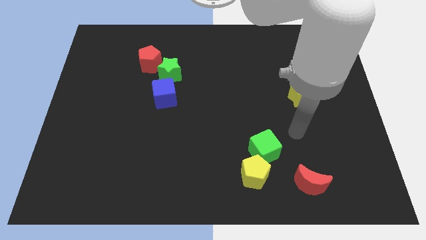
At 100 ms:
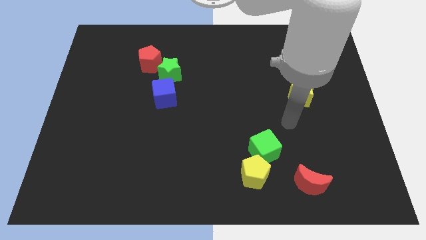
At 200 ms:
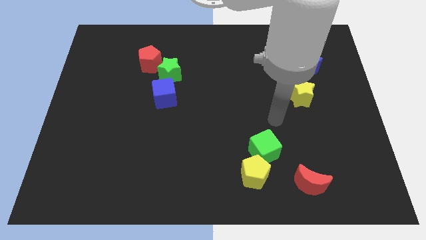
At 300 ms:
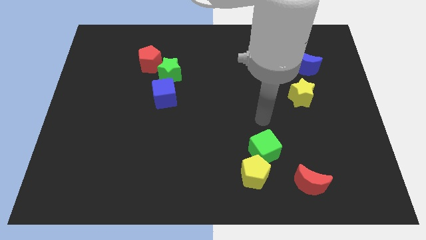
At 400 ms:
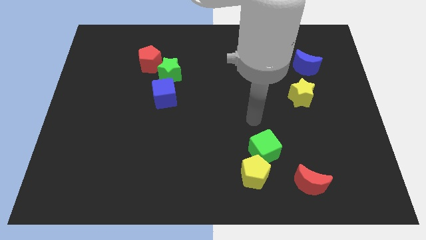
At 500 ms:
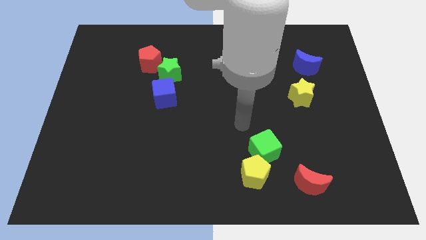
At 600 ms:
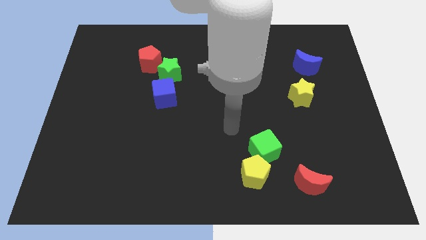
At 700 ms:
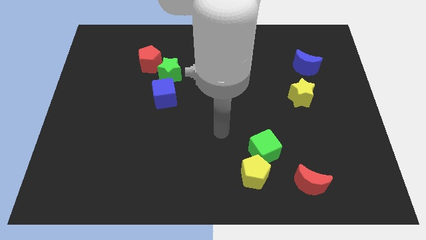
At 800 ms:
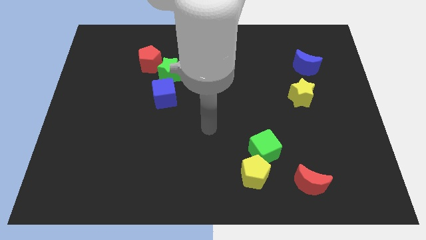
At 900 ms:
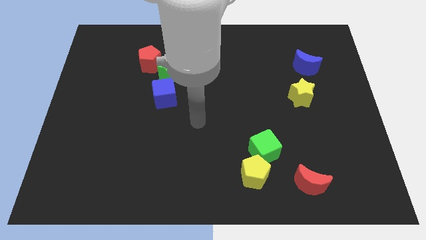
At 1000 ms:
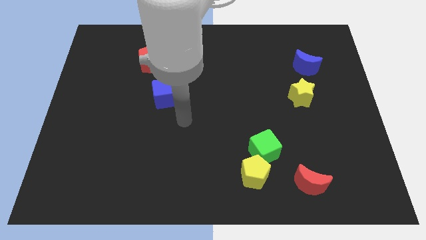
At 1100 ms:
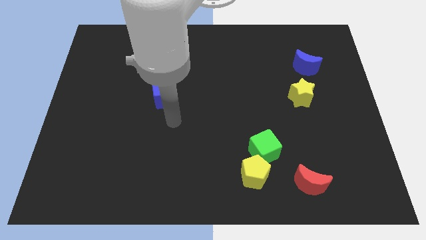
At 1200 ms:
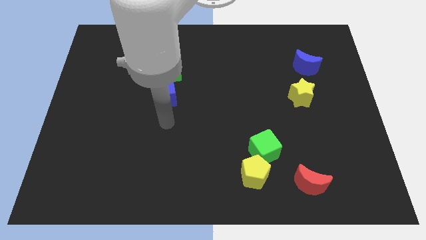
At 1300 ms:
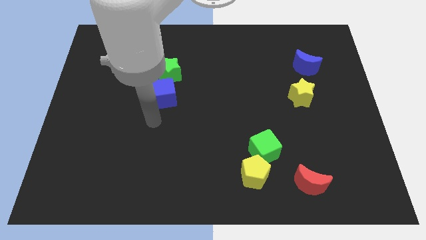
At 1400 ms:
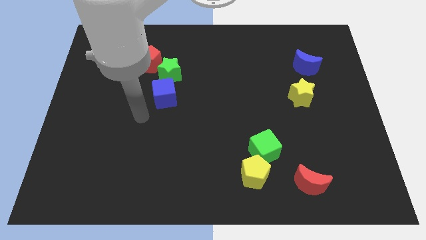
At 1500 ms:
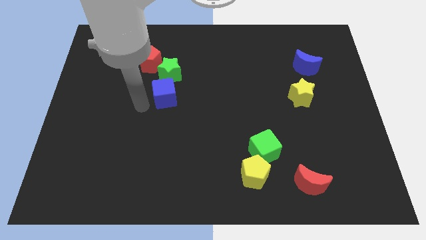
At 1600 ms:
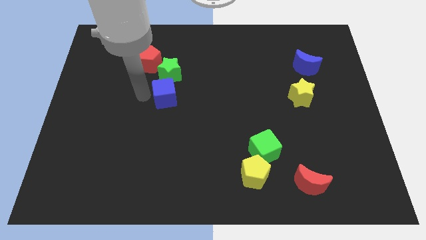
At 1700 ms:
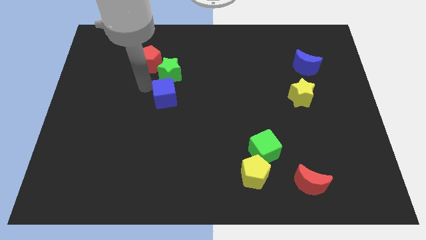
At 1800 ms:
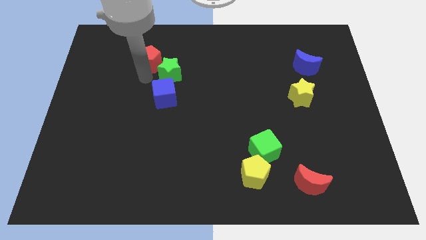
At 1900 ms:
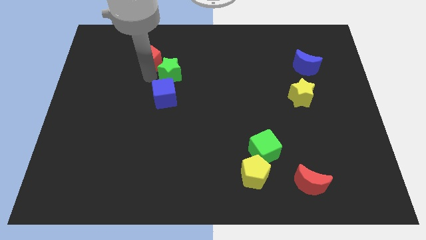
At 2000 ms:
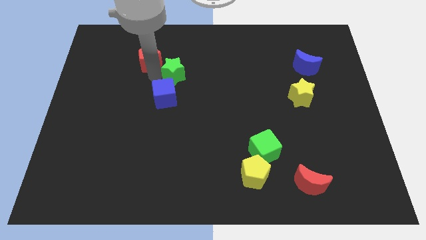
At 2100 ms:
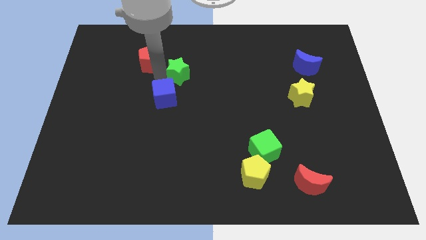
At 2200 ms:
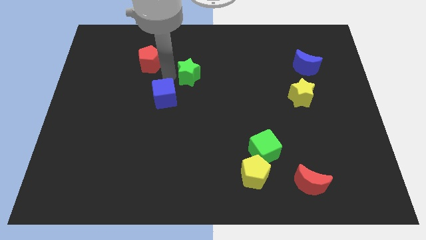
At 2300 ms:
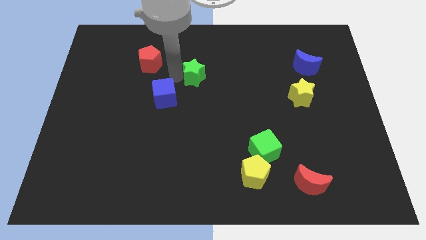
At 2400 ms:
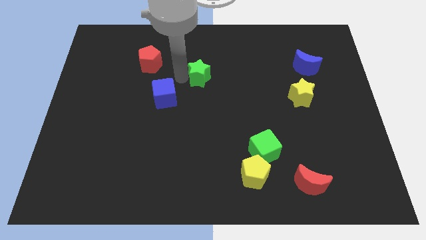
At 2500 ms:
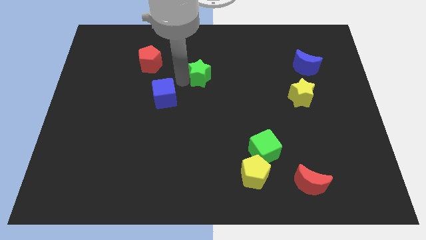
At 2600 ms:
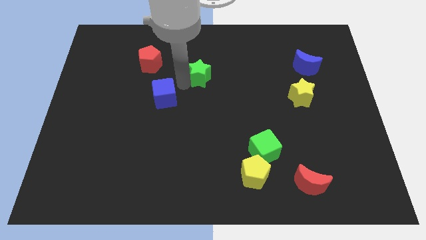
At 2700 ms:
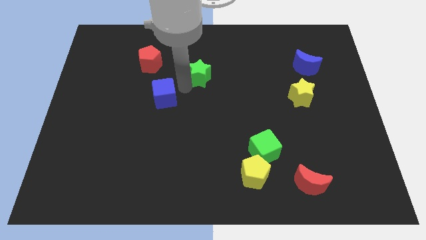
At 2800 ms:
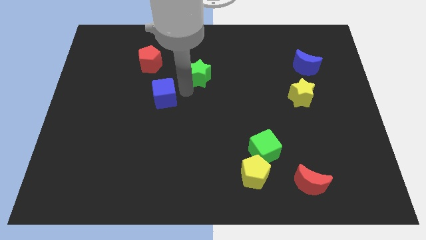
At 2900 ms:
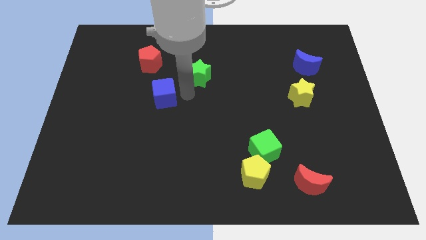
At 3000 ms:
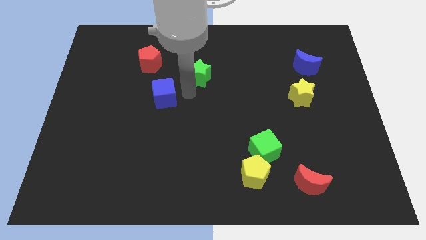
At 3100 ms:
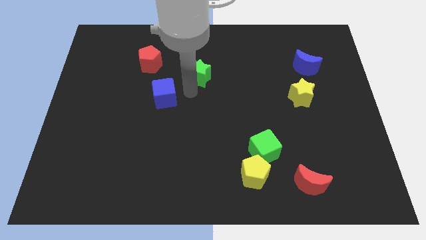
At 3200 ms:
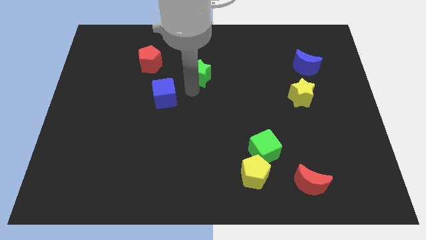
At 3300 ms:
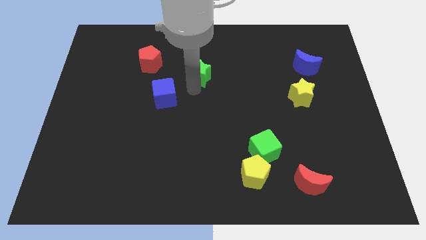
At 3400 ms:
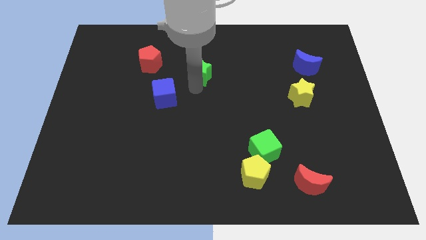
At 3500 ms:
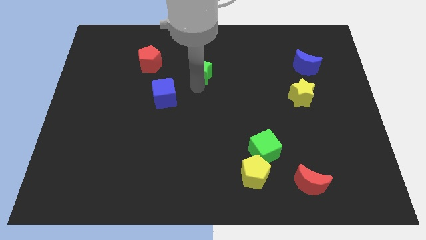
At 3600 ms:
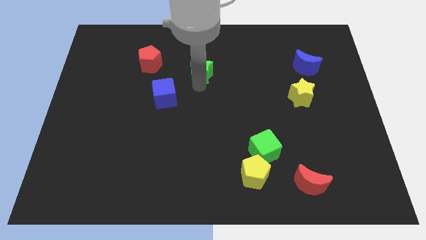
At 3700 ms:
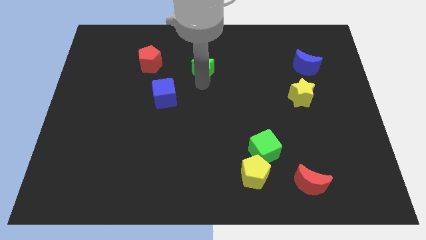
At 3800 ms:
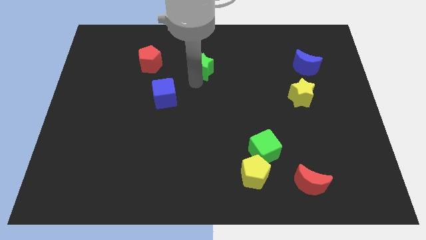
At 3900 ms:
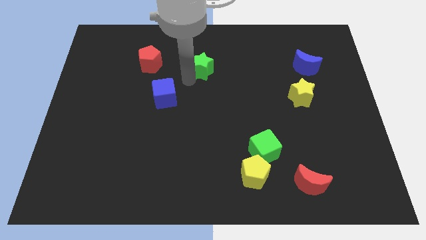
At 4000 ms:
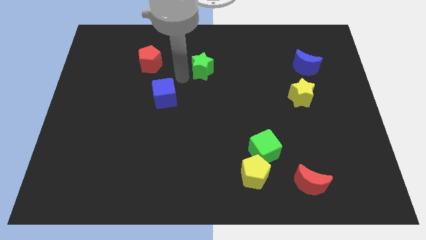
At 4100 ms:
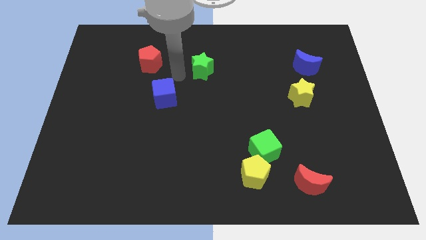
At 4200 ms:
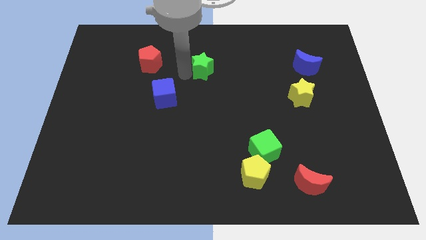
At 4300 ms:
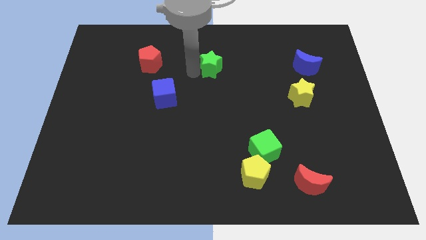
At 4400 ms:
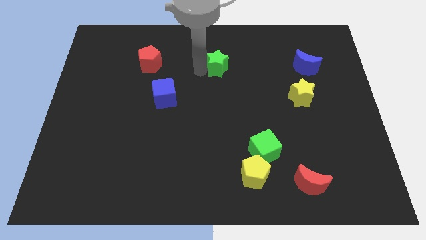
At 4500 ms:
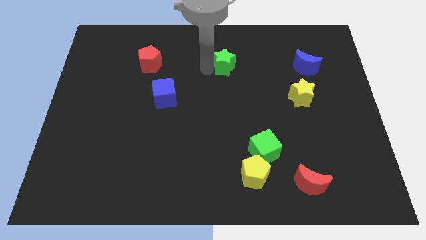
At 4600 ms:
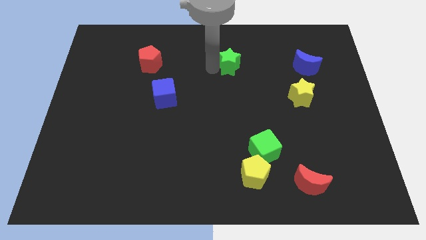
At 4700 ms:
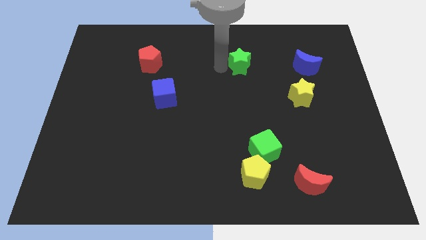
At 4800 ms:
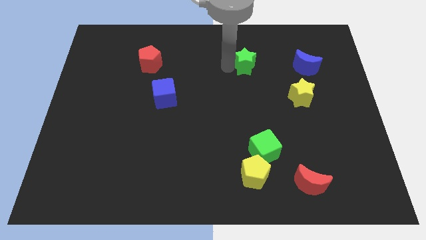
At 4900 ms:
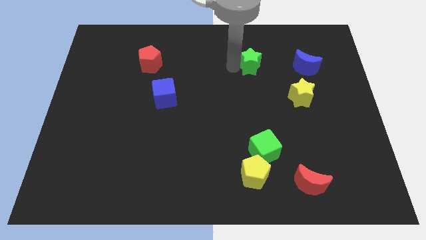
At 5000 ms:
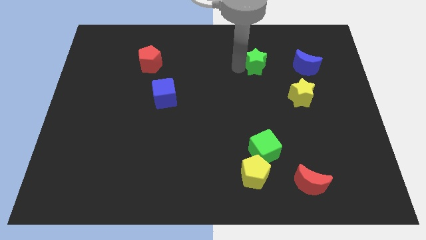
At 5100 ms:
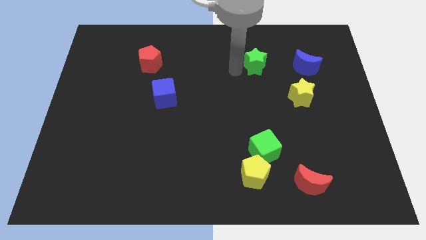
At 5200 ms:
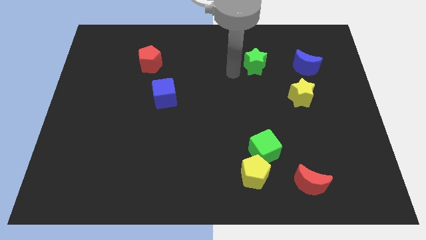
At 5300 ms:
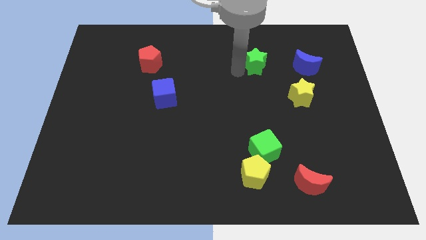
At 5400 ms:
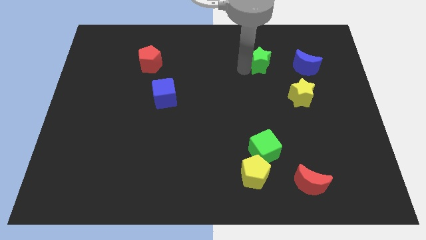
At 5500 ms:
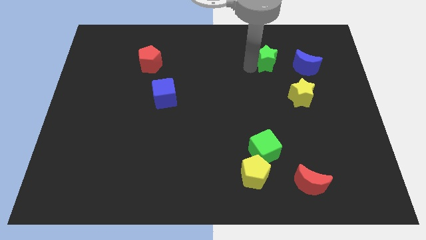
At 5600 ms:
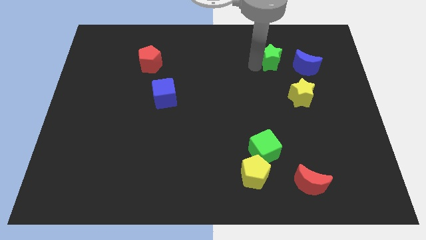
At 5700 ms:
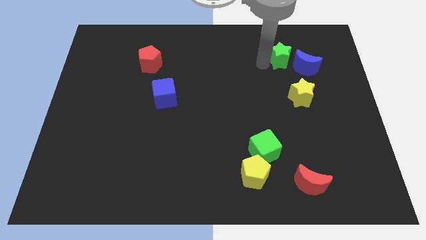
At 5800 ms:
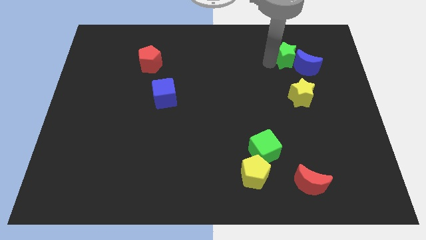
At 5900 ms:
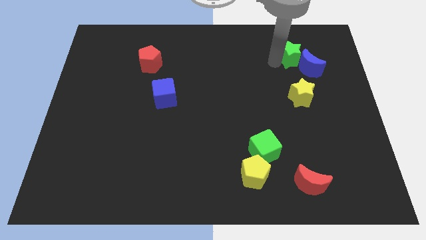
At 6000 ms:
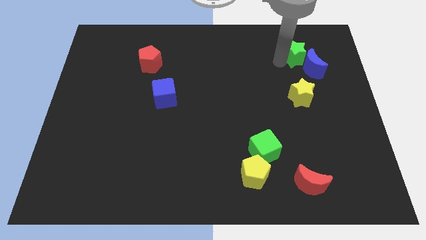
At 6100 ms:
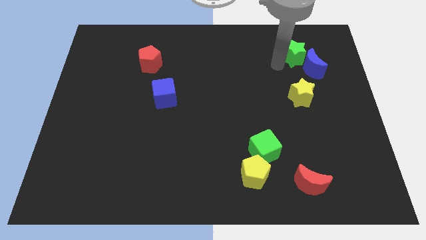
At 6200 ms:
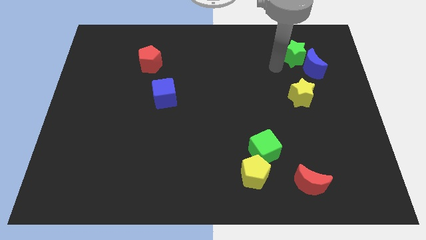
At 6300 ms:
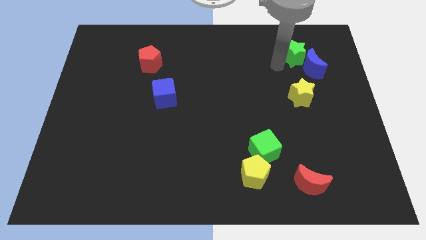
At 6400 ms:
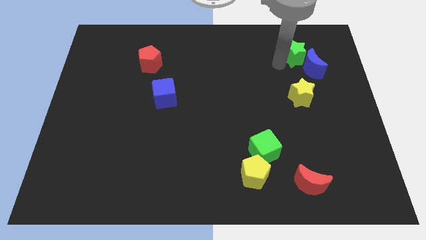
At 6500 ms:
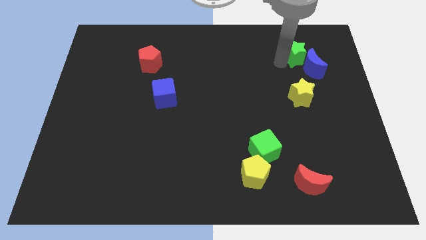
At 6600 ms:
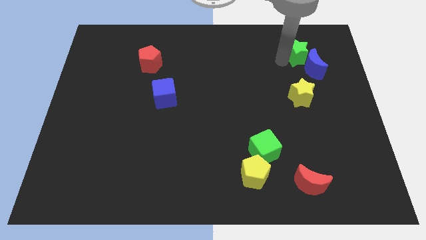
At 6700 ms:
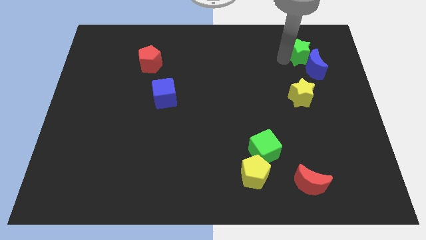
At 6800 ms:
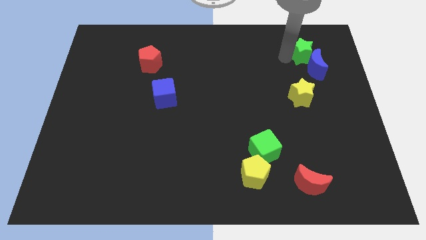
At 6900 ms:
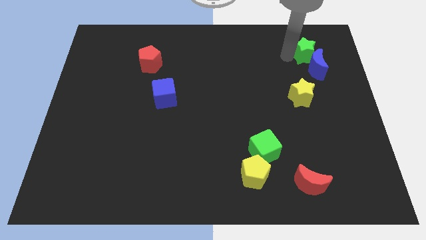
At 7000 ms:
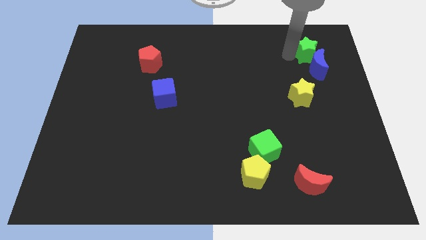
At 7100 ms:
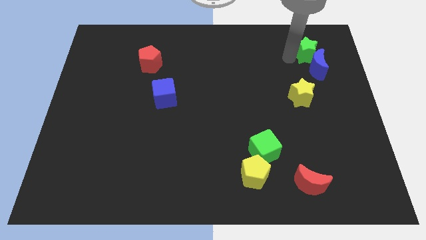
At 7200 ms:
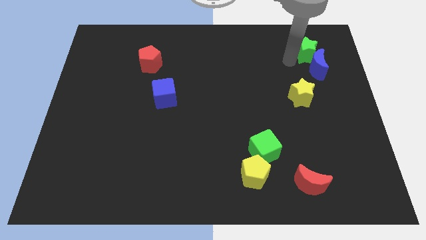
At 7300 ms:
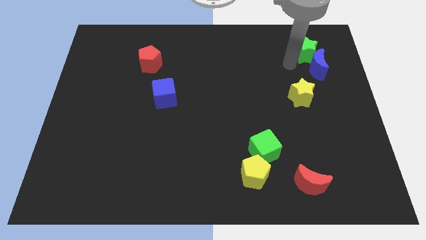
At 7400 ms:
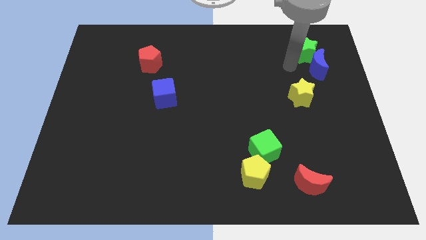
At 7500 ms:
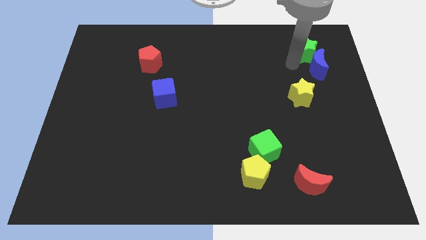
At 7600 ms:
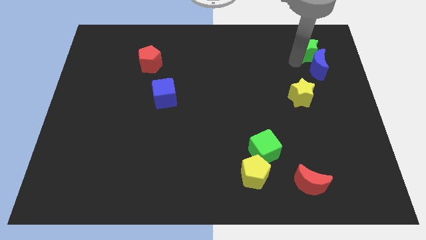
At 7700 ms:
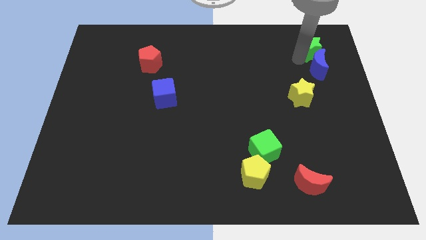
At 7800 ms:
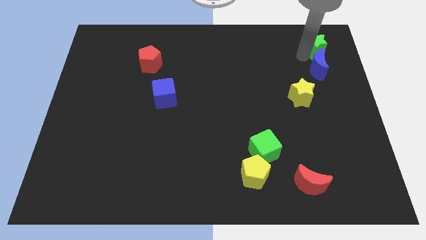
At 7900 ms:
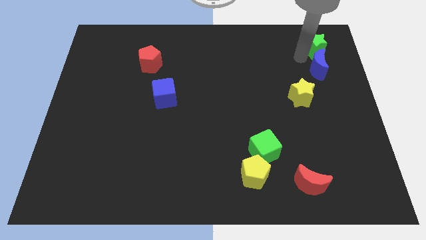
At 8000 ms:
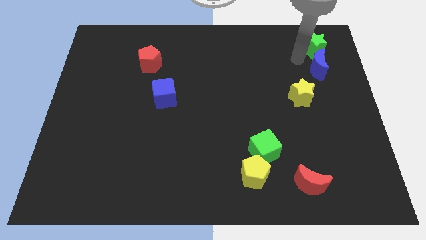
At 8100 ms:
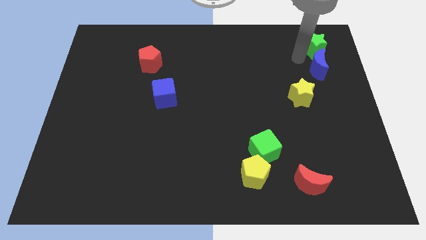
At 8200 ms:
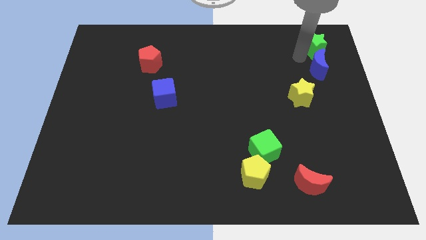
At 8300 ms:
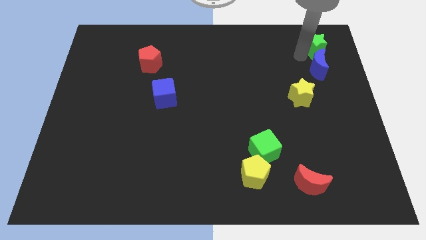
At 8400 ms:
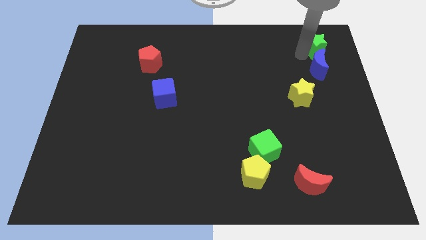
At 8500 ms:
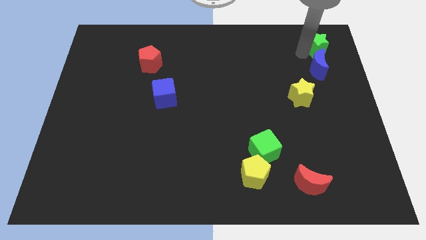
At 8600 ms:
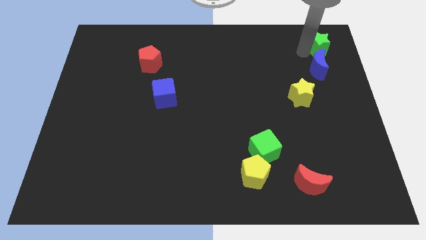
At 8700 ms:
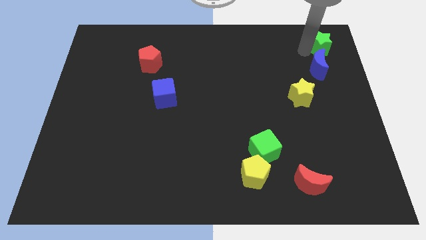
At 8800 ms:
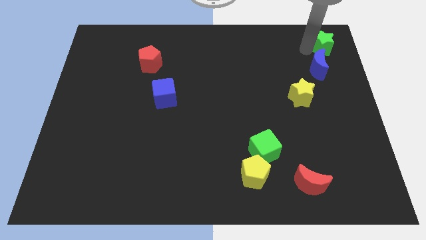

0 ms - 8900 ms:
put the green star to the top right corner
